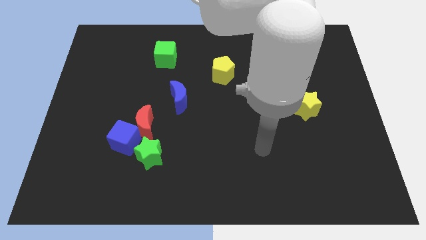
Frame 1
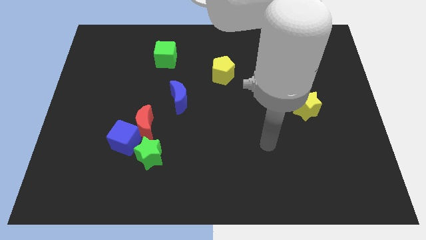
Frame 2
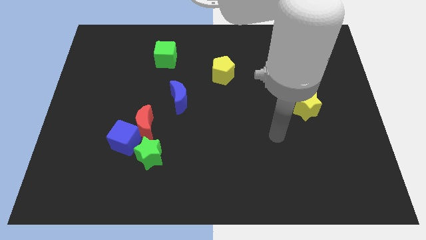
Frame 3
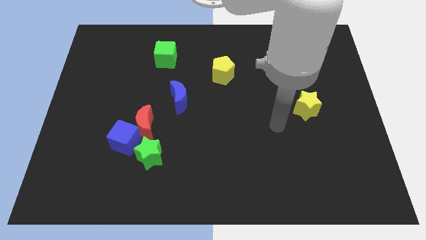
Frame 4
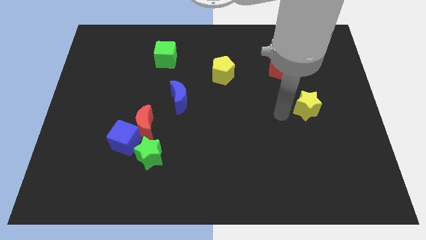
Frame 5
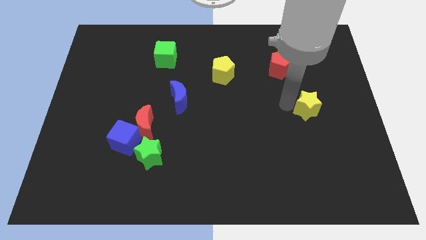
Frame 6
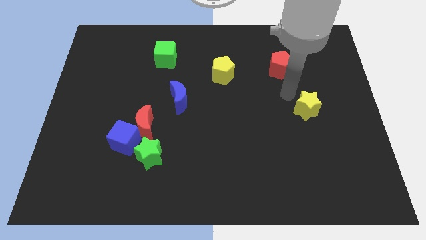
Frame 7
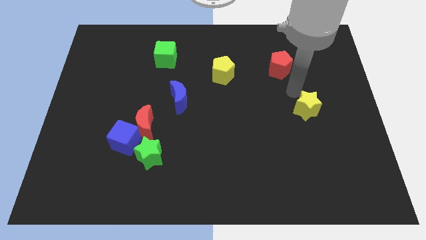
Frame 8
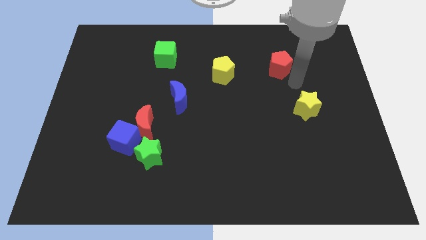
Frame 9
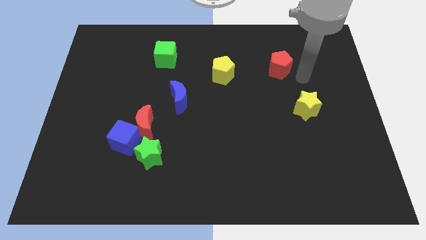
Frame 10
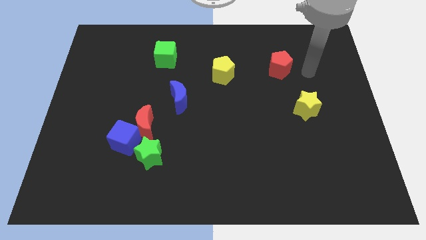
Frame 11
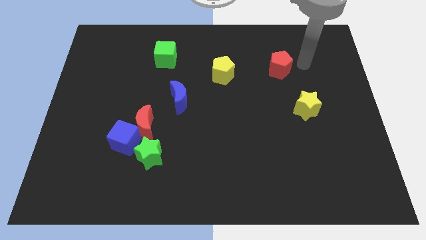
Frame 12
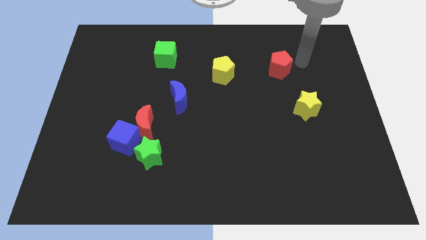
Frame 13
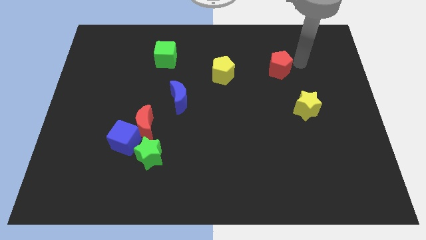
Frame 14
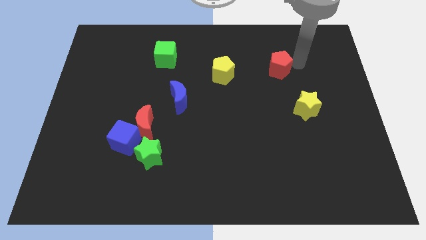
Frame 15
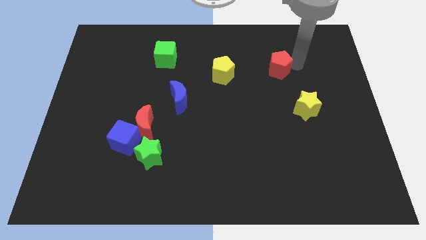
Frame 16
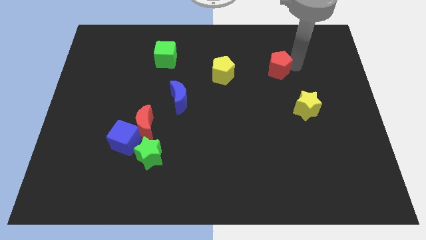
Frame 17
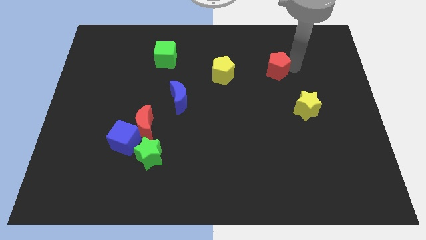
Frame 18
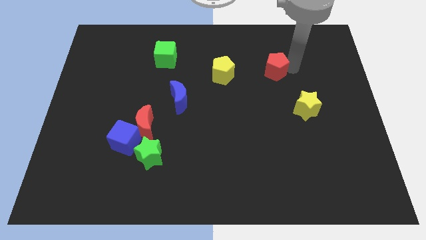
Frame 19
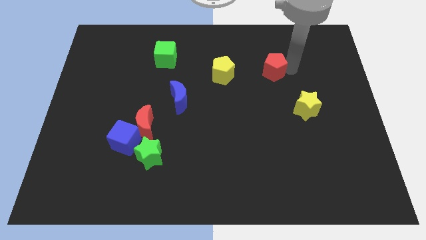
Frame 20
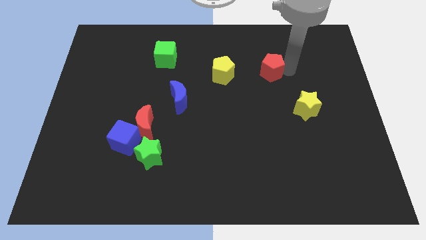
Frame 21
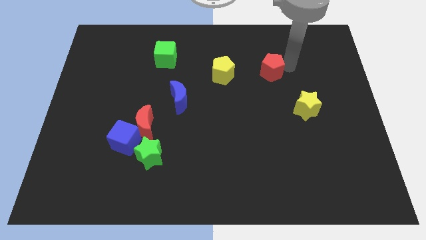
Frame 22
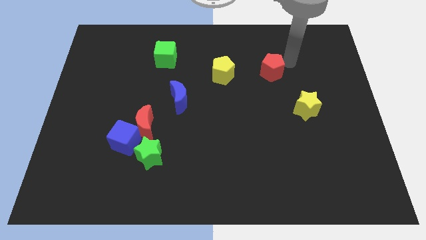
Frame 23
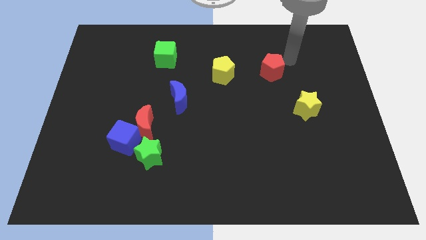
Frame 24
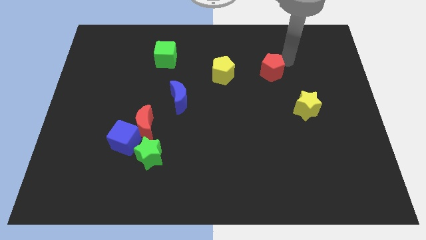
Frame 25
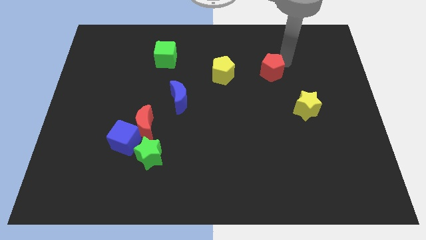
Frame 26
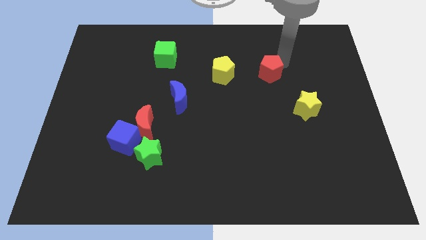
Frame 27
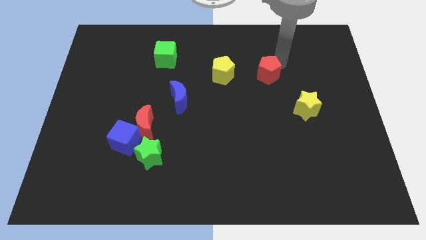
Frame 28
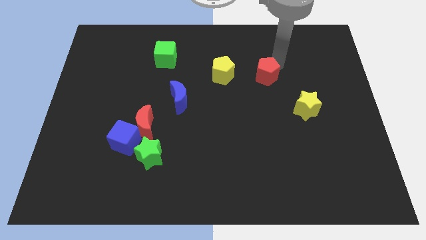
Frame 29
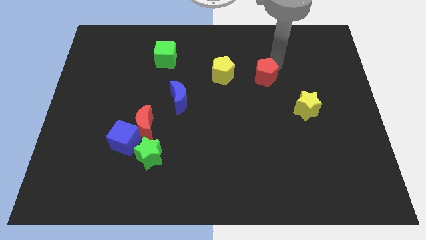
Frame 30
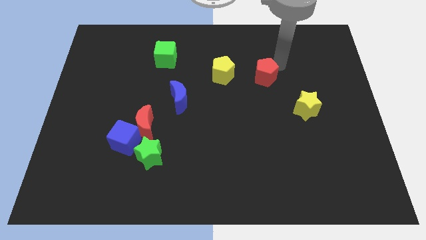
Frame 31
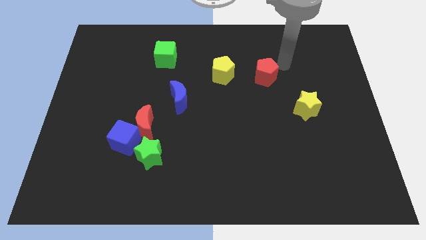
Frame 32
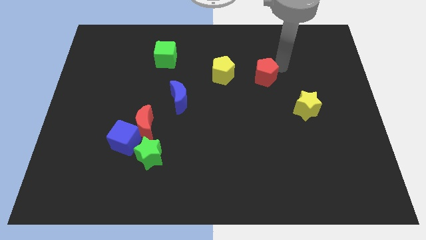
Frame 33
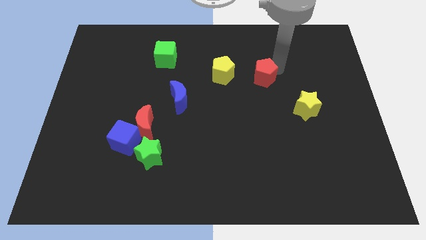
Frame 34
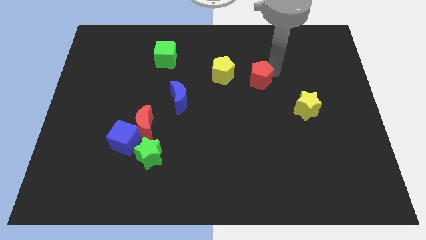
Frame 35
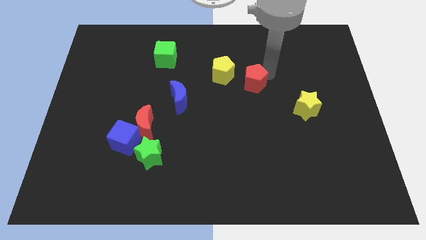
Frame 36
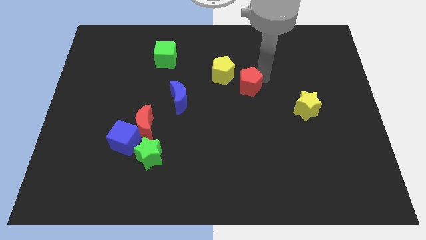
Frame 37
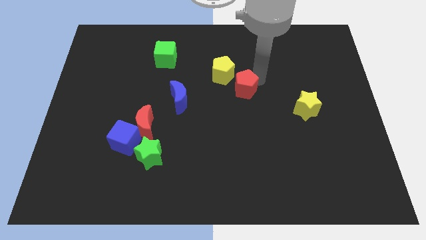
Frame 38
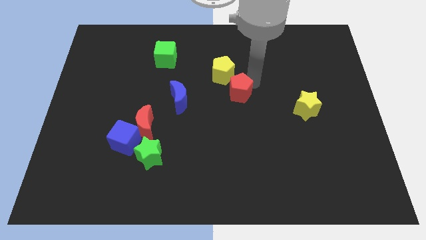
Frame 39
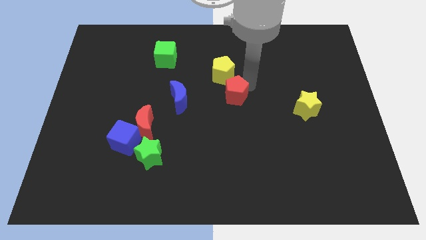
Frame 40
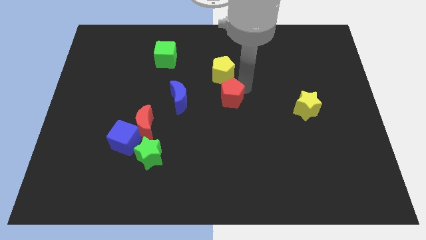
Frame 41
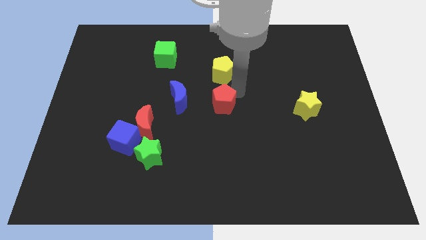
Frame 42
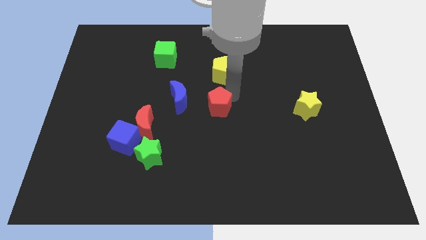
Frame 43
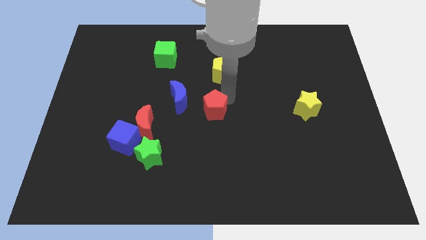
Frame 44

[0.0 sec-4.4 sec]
slide the red pentagon diagonally downwards and to the left

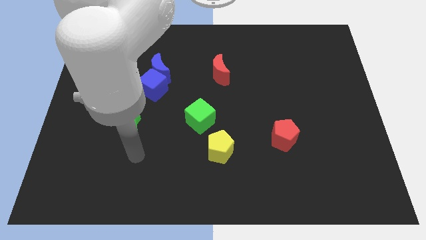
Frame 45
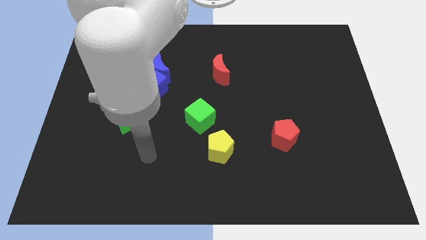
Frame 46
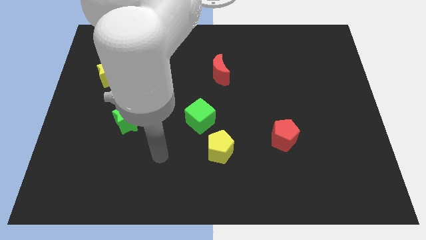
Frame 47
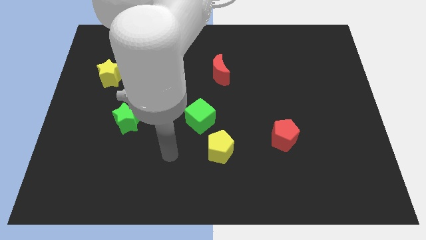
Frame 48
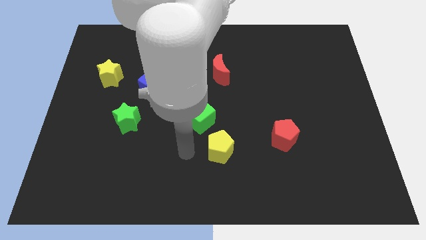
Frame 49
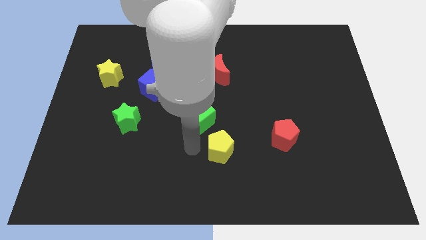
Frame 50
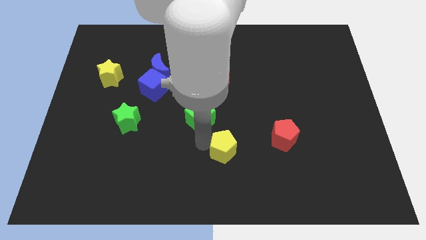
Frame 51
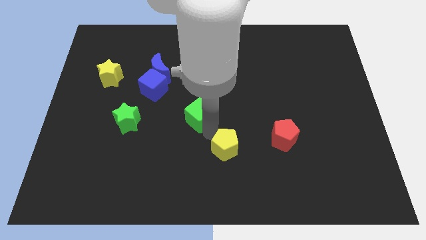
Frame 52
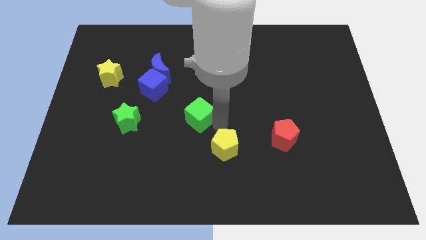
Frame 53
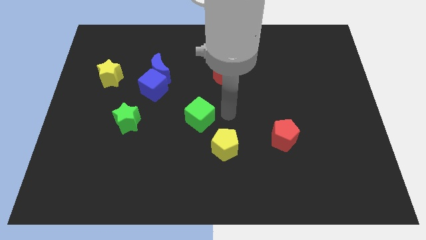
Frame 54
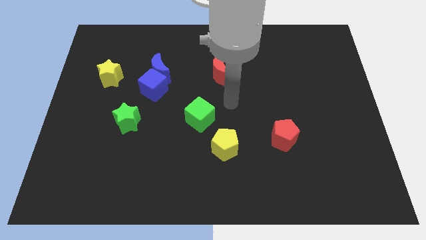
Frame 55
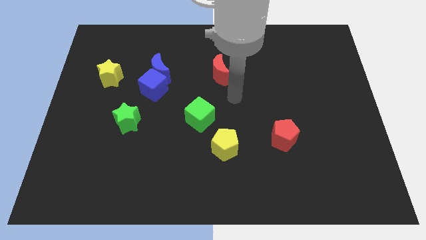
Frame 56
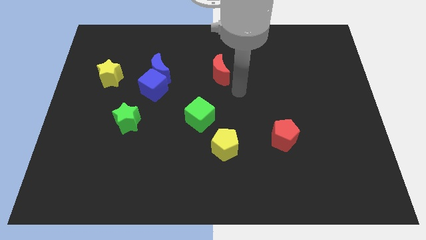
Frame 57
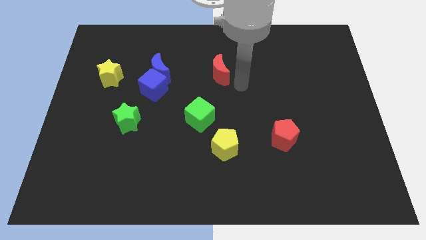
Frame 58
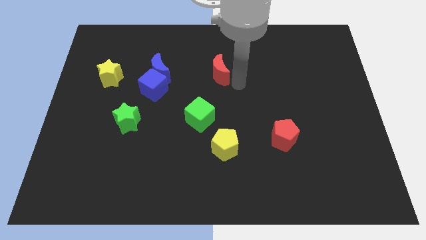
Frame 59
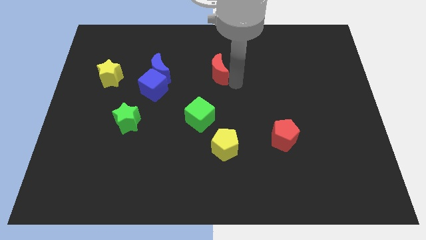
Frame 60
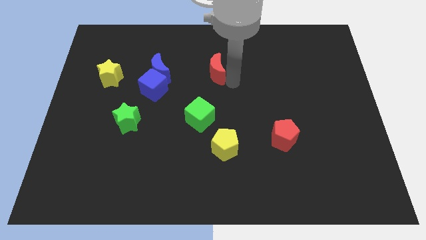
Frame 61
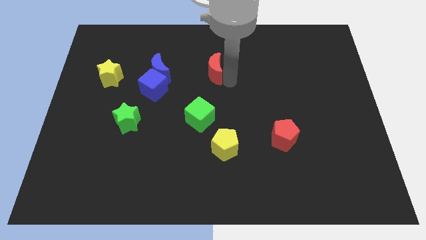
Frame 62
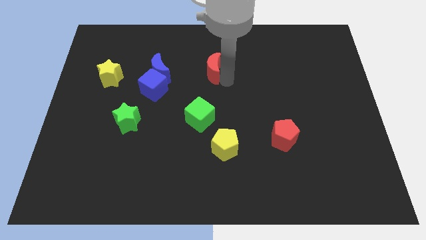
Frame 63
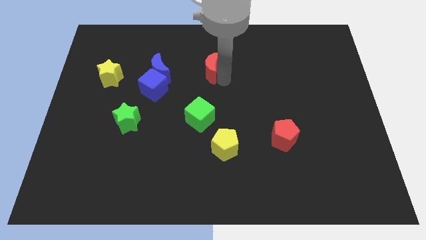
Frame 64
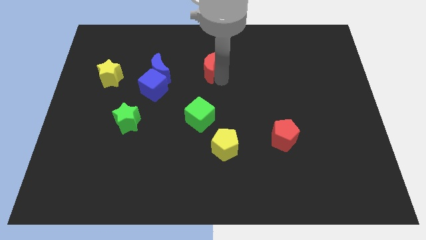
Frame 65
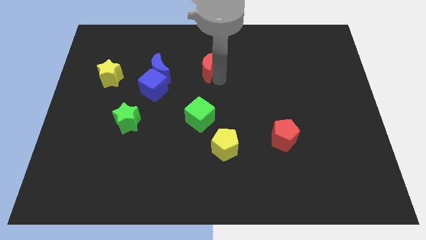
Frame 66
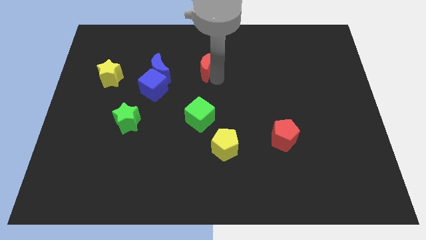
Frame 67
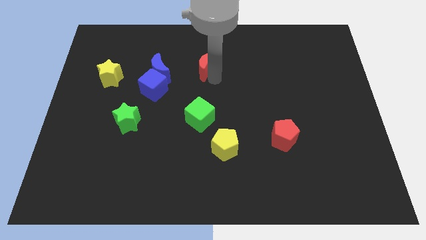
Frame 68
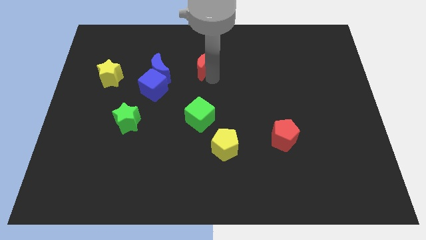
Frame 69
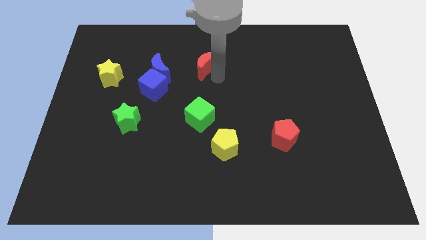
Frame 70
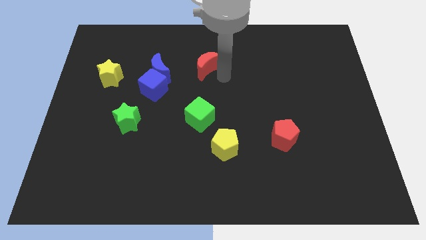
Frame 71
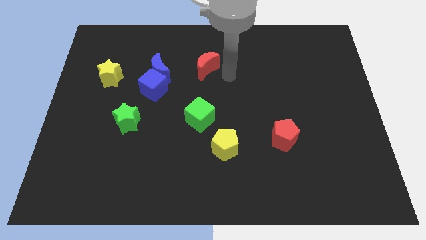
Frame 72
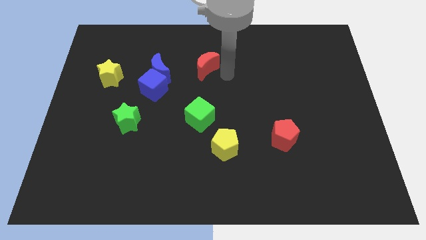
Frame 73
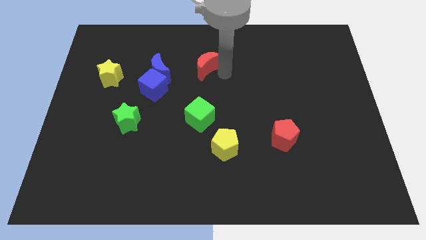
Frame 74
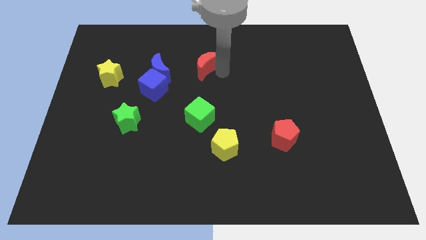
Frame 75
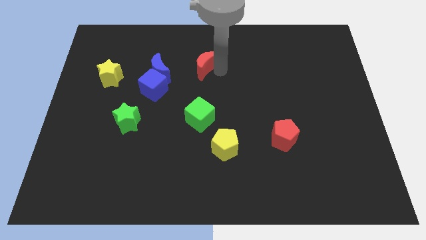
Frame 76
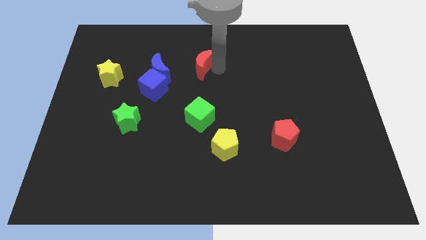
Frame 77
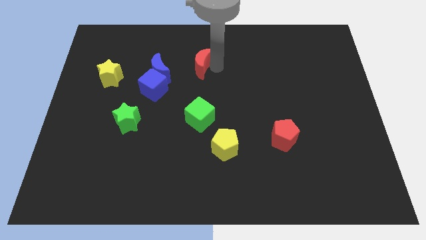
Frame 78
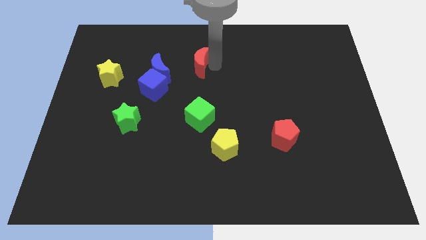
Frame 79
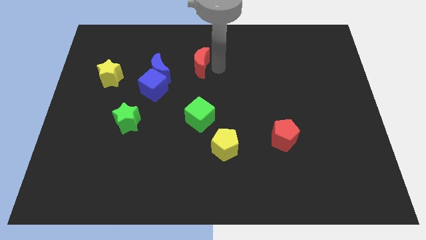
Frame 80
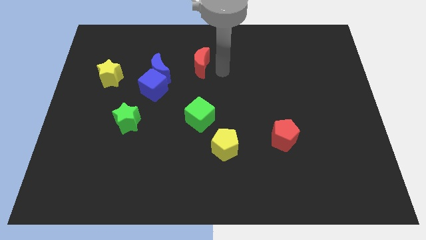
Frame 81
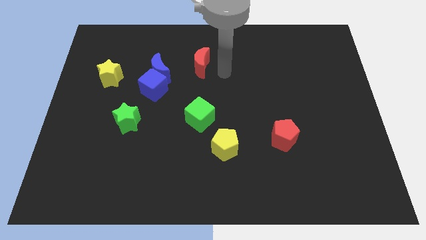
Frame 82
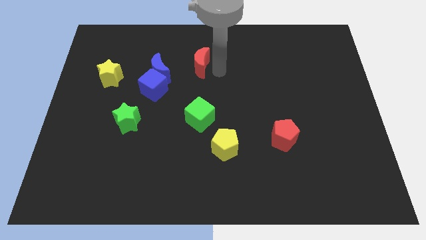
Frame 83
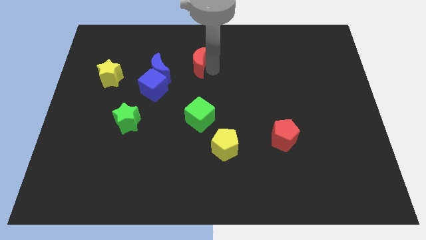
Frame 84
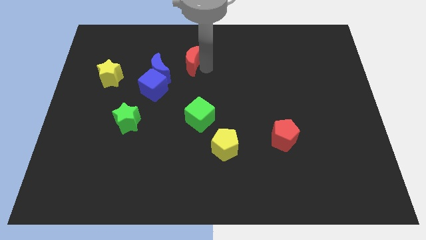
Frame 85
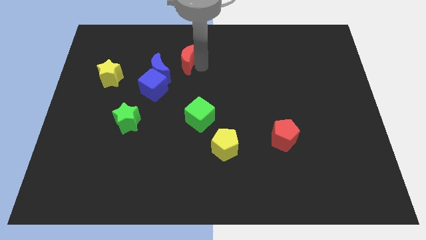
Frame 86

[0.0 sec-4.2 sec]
slide the red moon to the left a little
